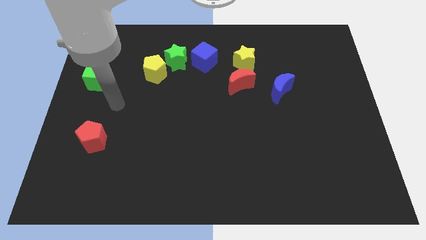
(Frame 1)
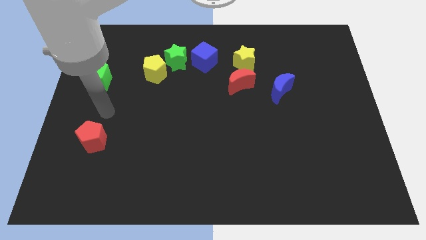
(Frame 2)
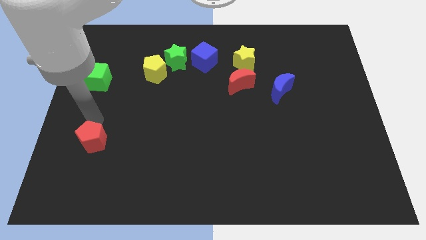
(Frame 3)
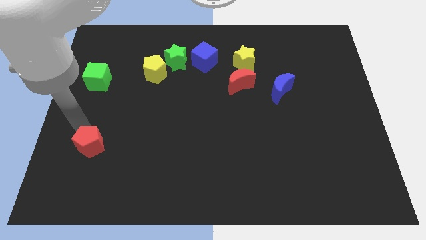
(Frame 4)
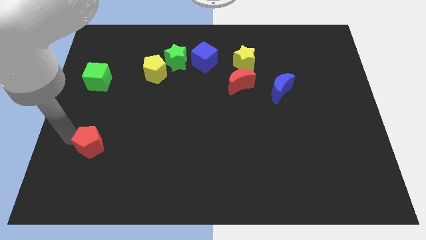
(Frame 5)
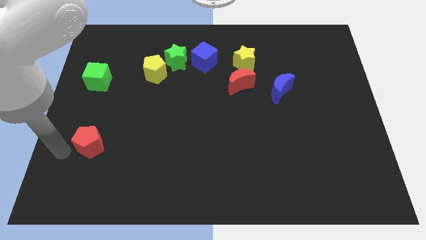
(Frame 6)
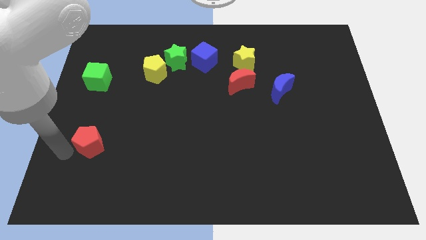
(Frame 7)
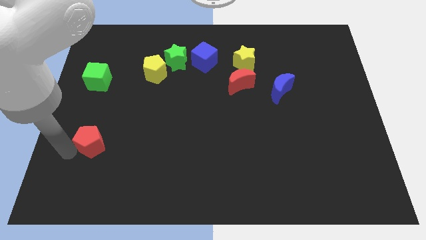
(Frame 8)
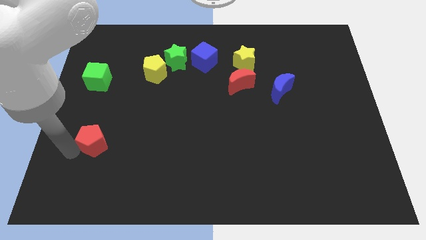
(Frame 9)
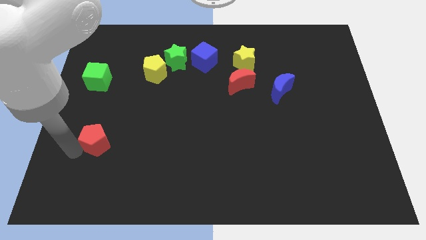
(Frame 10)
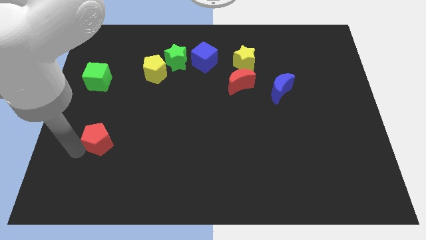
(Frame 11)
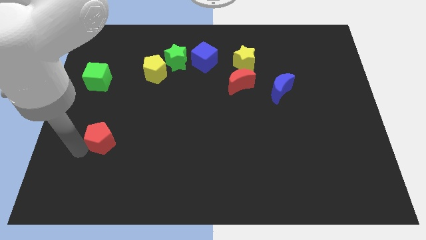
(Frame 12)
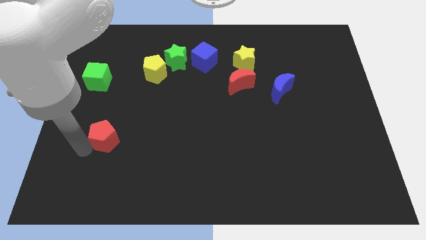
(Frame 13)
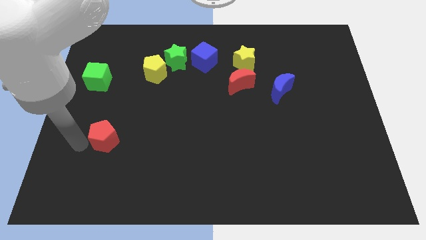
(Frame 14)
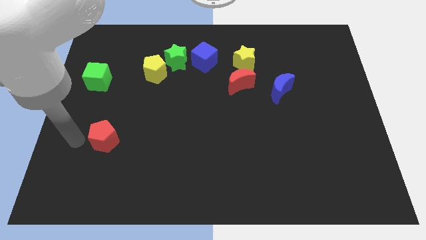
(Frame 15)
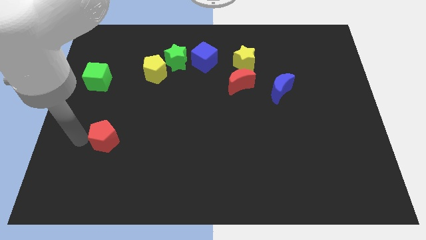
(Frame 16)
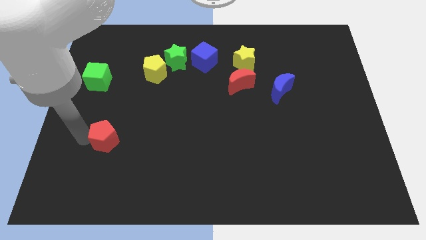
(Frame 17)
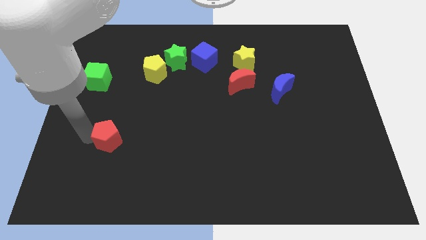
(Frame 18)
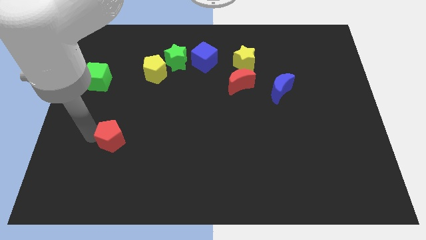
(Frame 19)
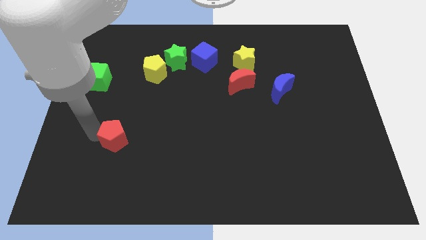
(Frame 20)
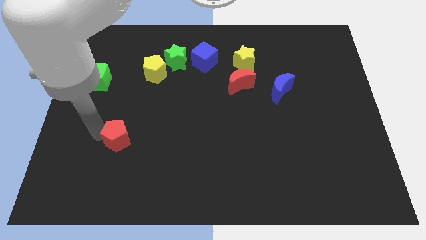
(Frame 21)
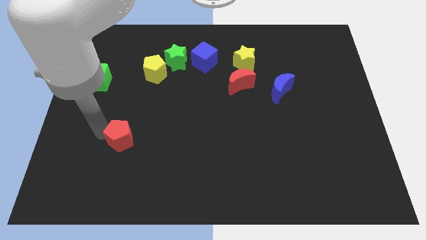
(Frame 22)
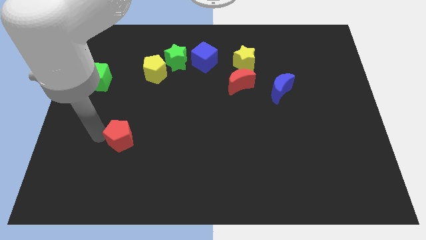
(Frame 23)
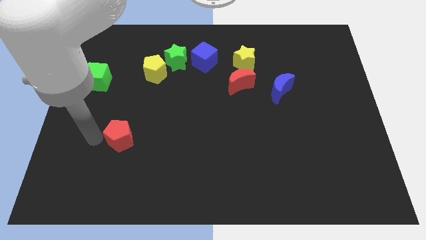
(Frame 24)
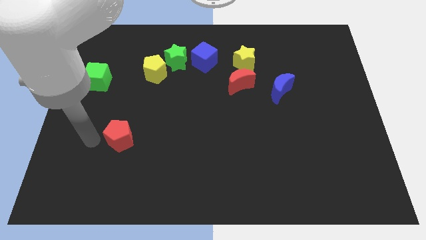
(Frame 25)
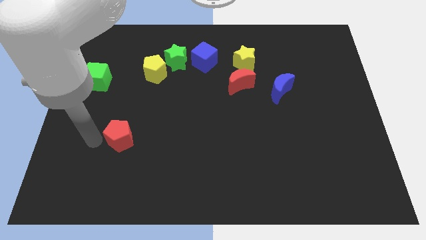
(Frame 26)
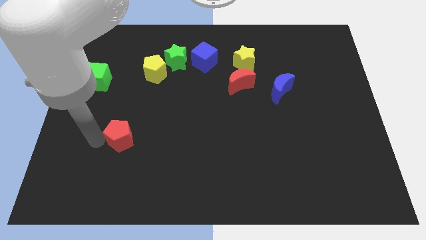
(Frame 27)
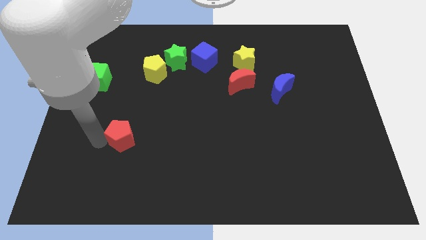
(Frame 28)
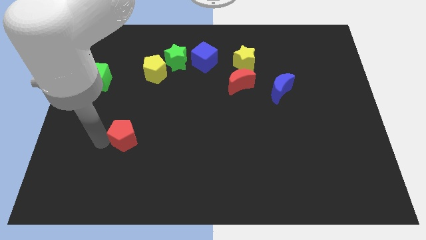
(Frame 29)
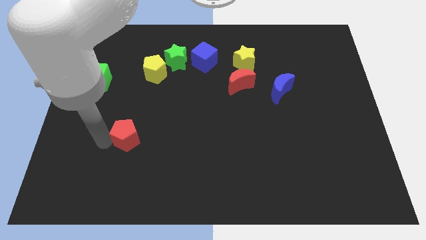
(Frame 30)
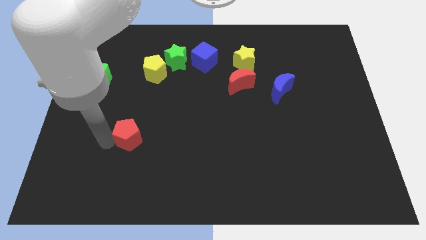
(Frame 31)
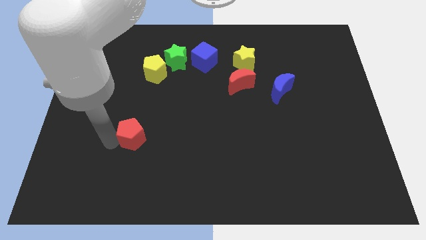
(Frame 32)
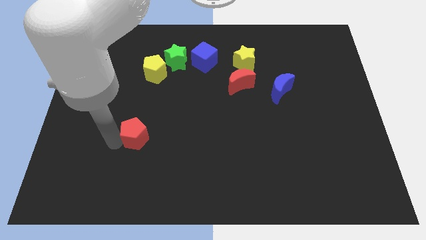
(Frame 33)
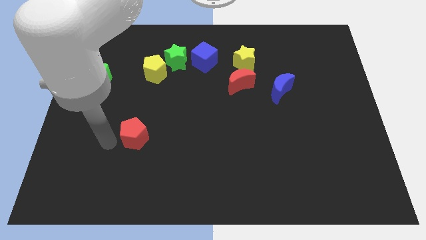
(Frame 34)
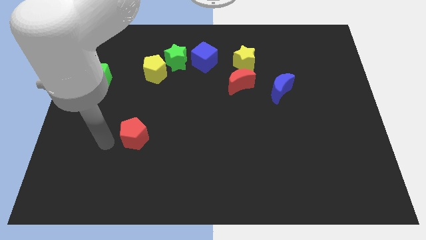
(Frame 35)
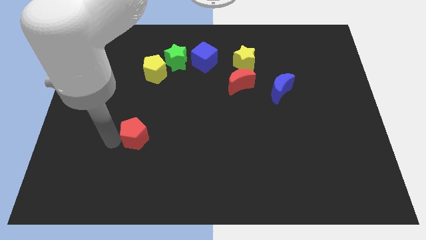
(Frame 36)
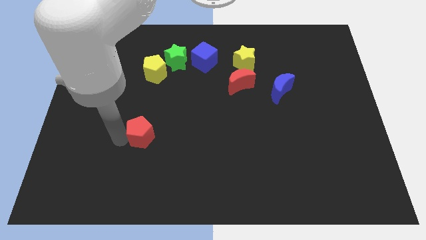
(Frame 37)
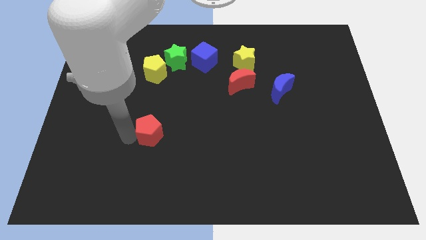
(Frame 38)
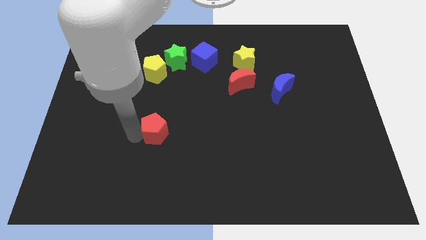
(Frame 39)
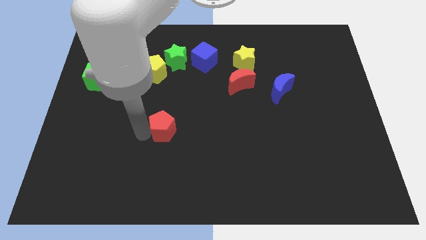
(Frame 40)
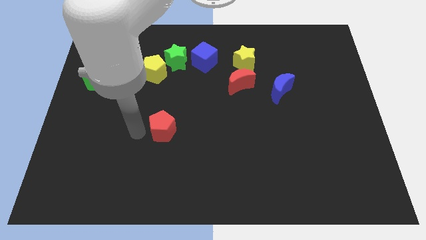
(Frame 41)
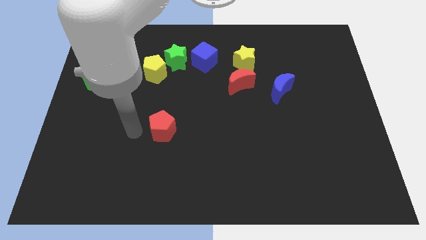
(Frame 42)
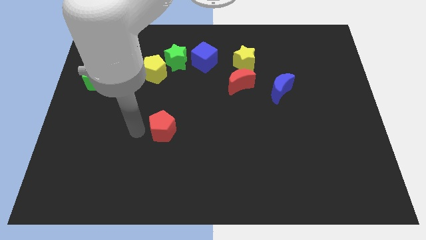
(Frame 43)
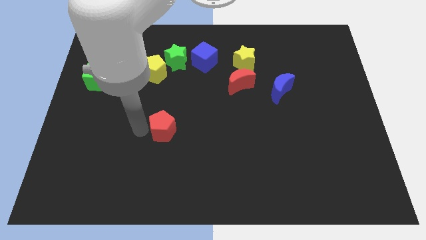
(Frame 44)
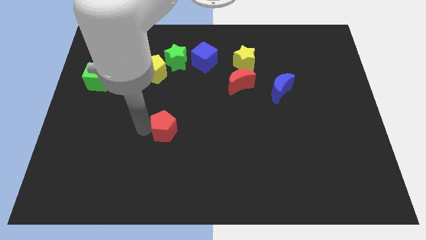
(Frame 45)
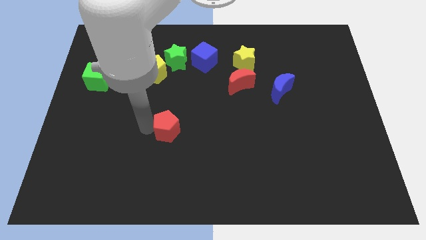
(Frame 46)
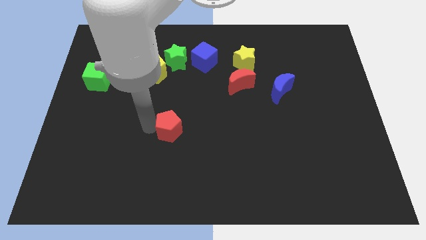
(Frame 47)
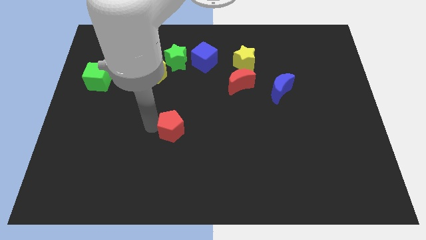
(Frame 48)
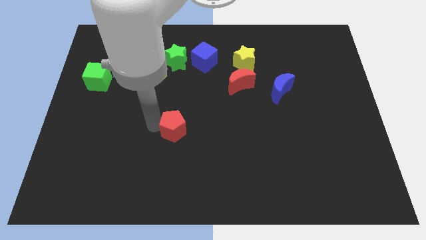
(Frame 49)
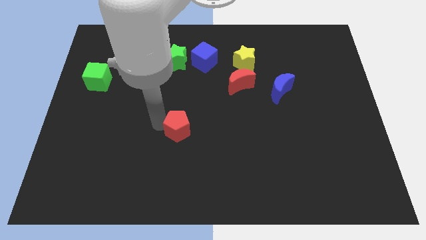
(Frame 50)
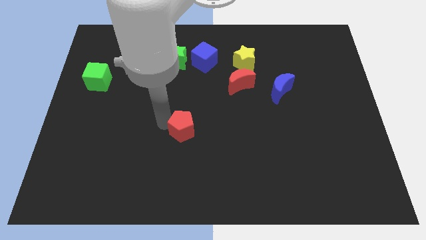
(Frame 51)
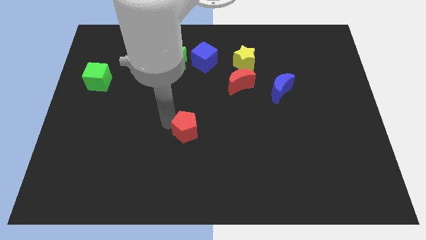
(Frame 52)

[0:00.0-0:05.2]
slide the red pentagon right

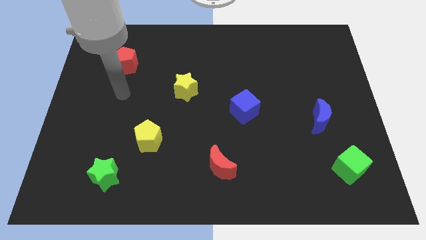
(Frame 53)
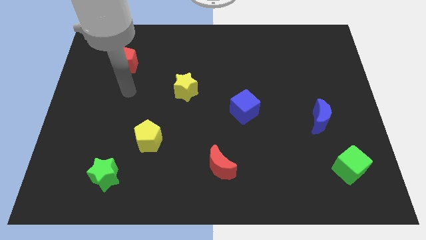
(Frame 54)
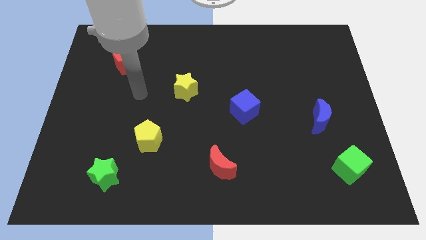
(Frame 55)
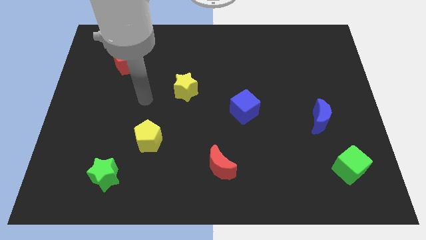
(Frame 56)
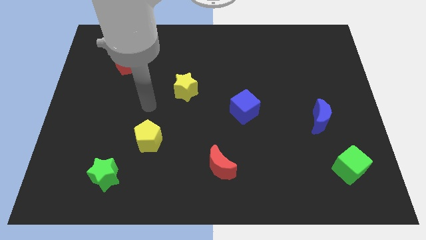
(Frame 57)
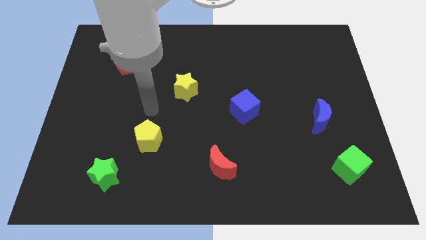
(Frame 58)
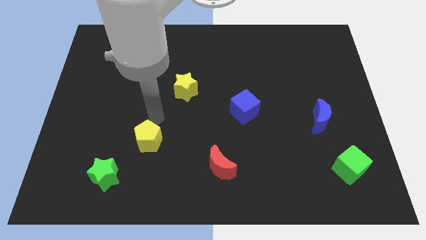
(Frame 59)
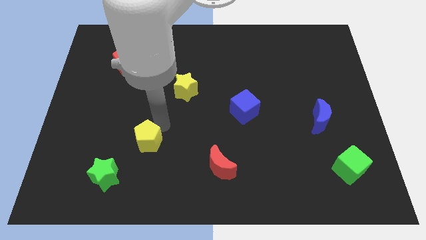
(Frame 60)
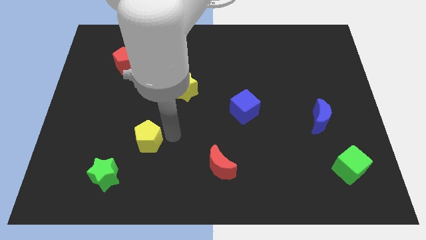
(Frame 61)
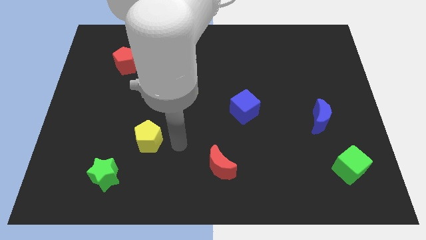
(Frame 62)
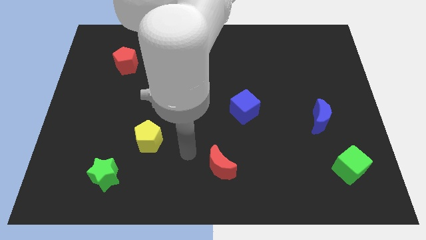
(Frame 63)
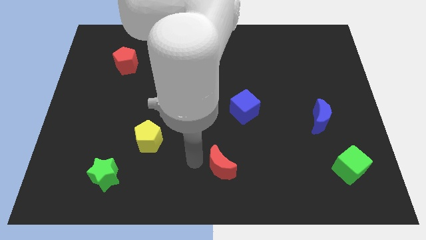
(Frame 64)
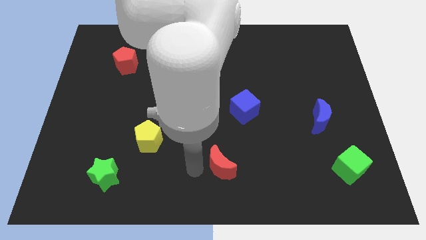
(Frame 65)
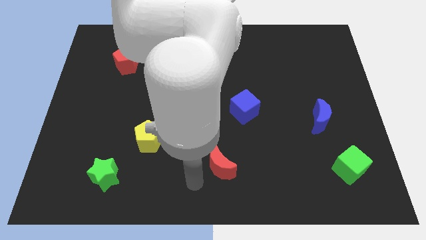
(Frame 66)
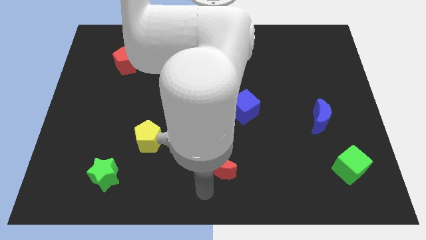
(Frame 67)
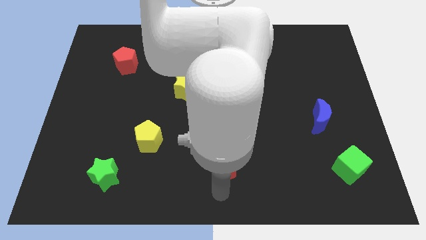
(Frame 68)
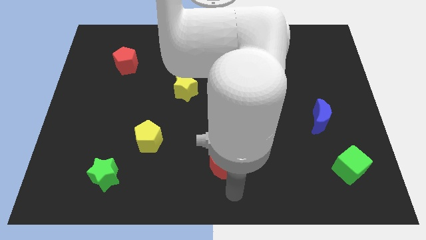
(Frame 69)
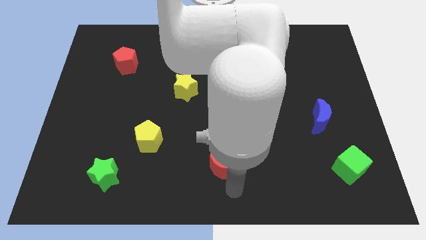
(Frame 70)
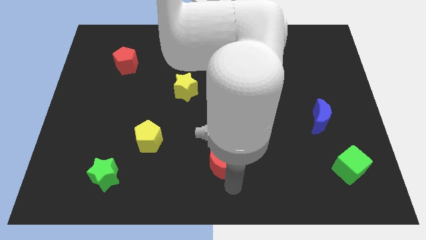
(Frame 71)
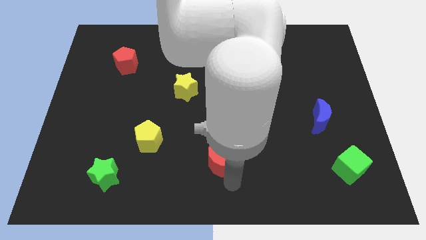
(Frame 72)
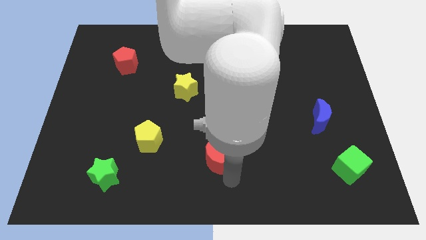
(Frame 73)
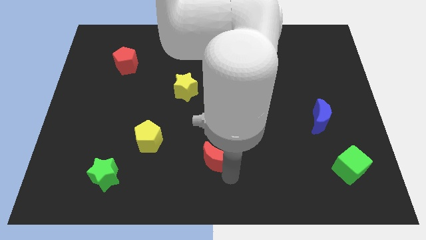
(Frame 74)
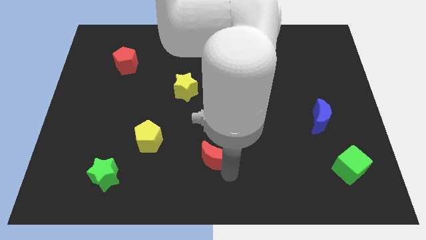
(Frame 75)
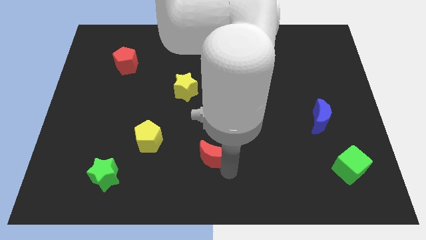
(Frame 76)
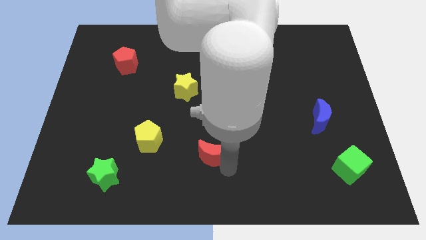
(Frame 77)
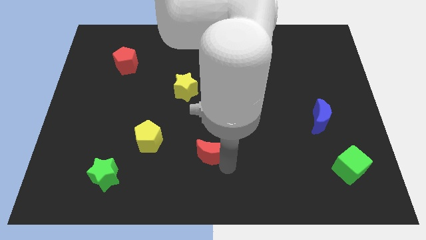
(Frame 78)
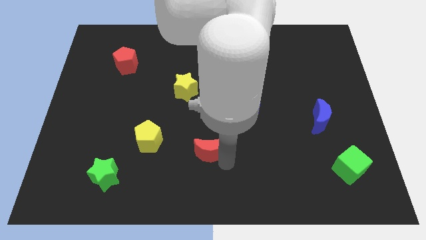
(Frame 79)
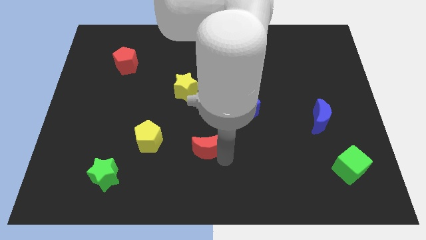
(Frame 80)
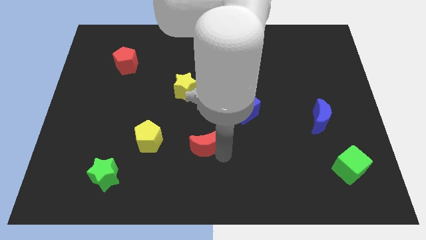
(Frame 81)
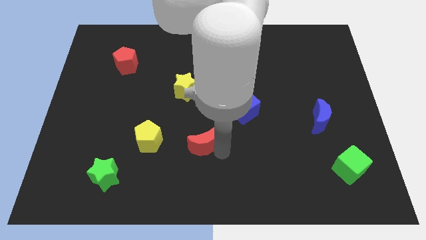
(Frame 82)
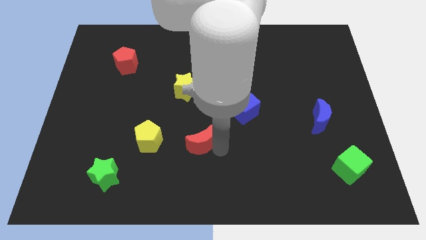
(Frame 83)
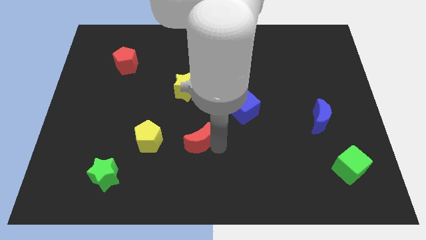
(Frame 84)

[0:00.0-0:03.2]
slide the red moon diagonally upwards and to the left somewhat
